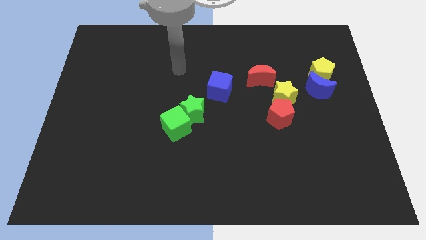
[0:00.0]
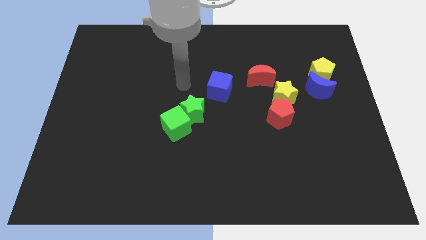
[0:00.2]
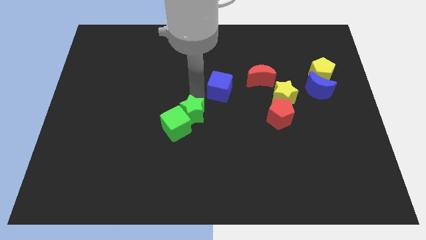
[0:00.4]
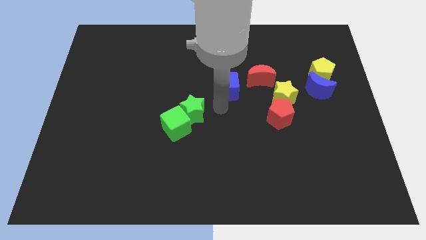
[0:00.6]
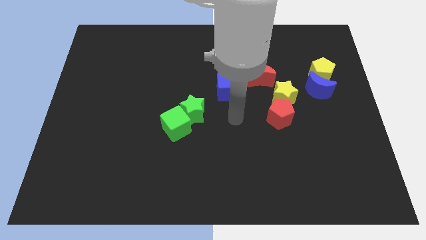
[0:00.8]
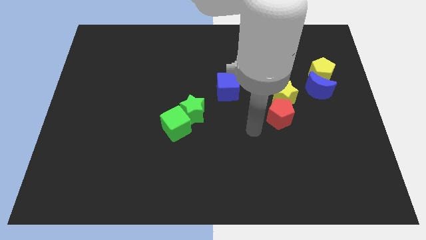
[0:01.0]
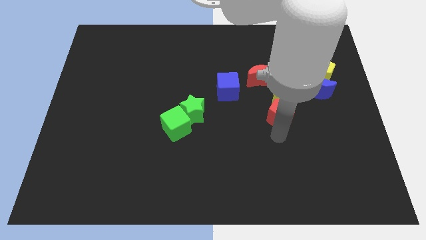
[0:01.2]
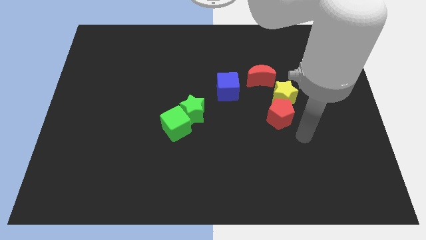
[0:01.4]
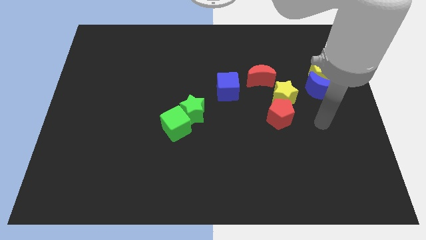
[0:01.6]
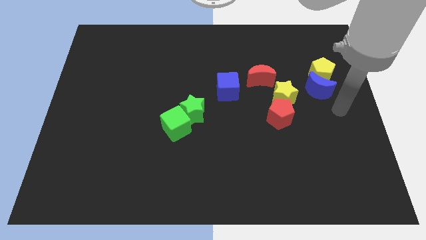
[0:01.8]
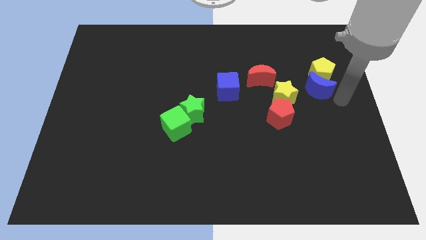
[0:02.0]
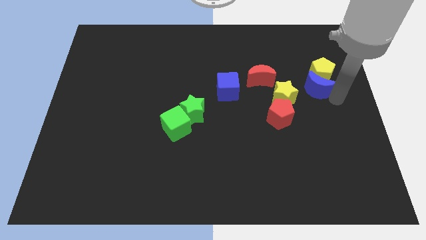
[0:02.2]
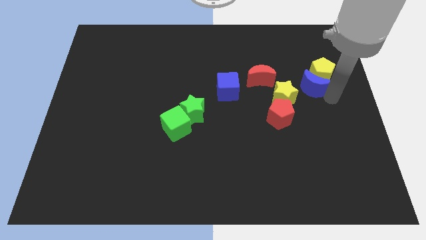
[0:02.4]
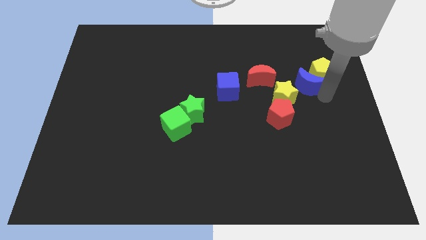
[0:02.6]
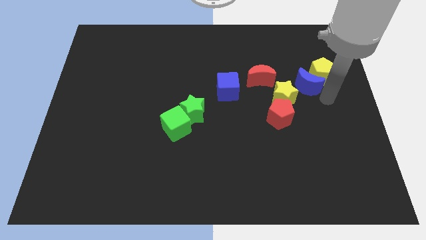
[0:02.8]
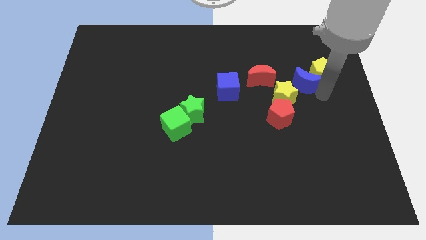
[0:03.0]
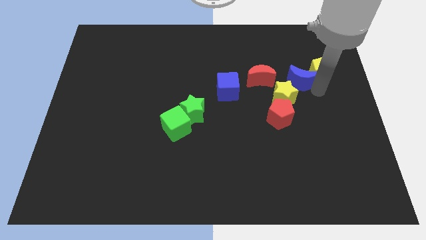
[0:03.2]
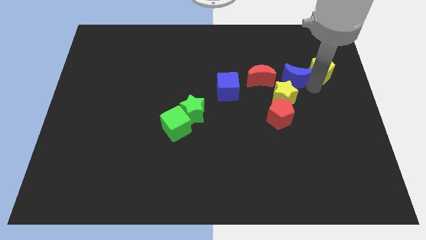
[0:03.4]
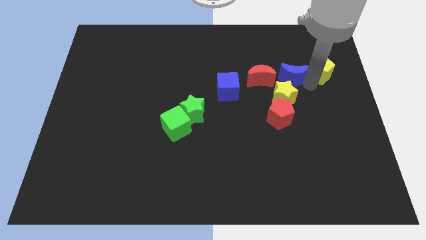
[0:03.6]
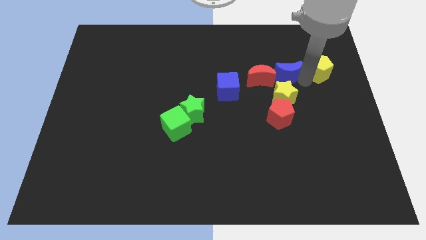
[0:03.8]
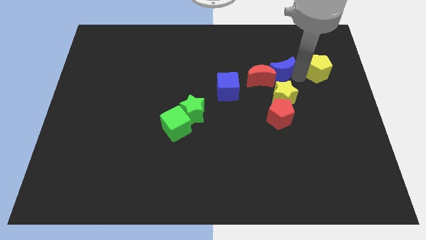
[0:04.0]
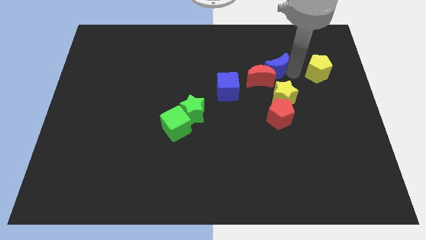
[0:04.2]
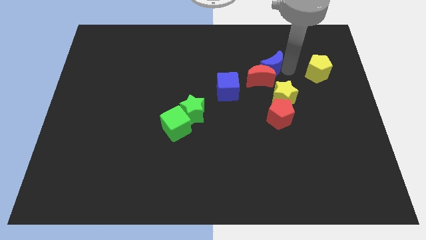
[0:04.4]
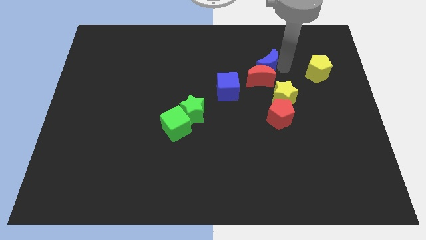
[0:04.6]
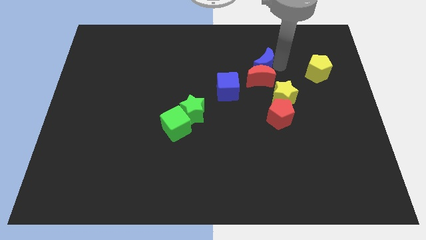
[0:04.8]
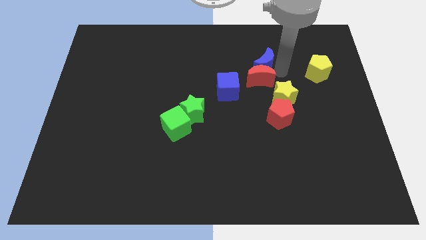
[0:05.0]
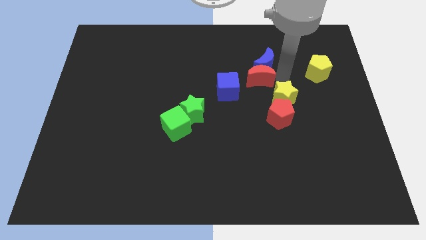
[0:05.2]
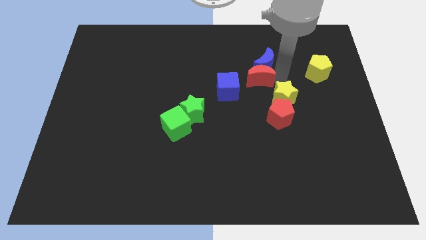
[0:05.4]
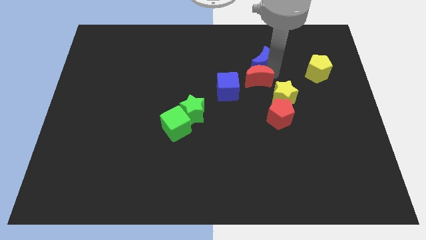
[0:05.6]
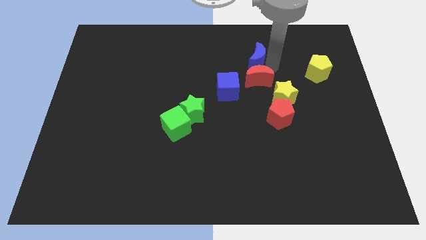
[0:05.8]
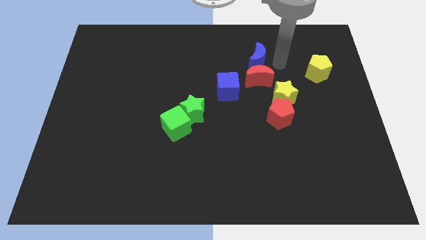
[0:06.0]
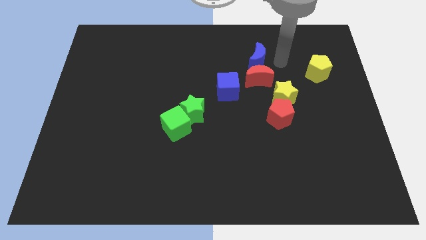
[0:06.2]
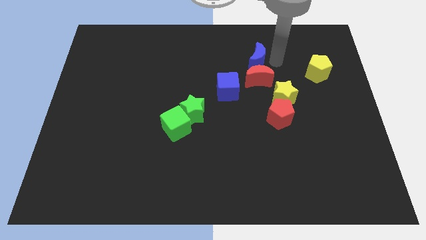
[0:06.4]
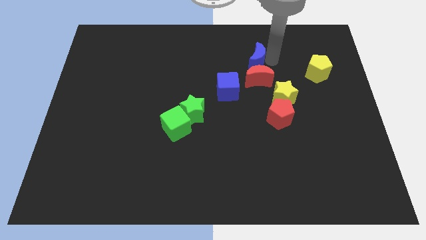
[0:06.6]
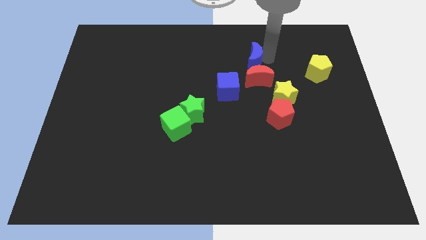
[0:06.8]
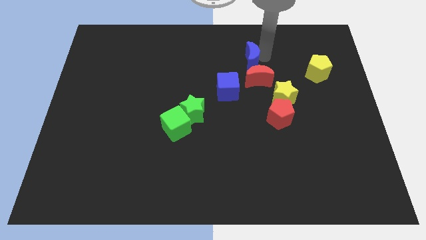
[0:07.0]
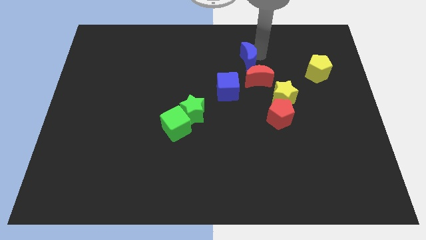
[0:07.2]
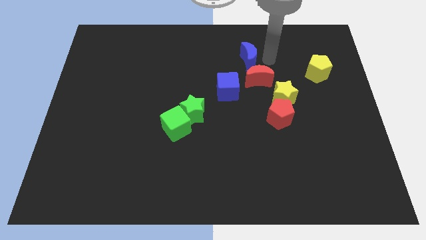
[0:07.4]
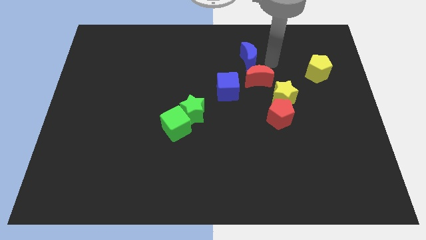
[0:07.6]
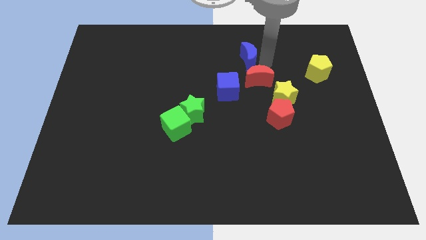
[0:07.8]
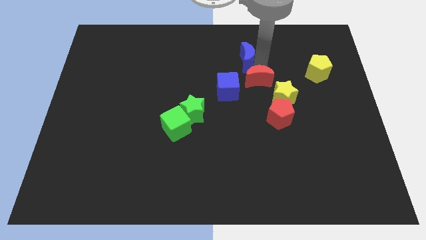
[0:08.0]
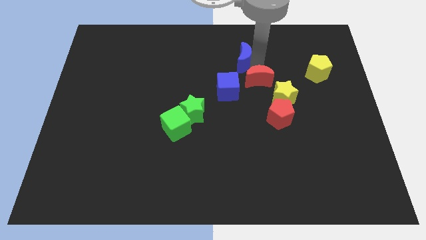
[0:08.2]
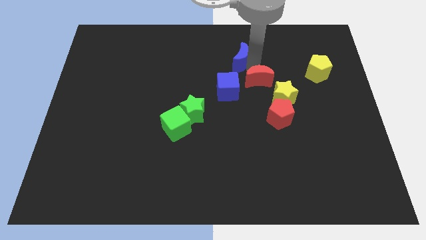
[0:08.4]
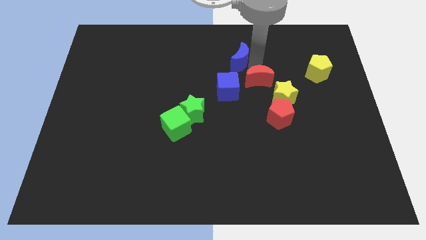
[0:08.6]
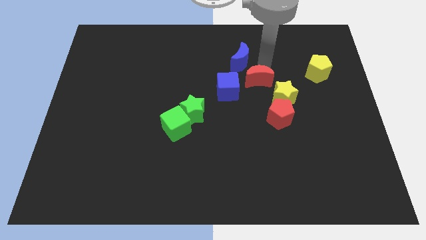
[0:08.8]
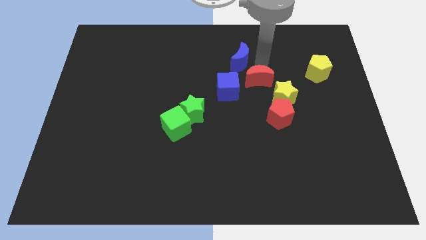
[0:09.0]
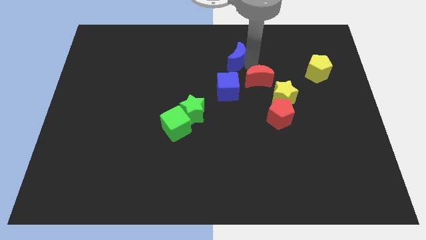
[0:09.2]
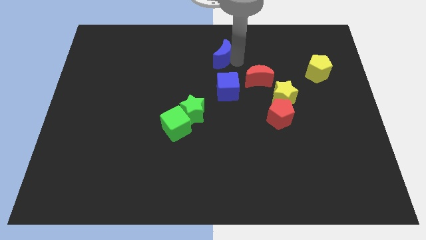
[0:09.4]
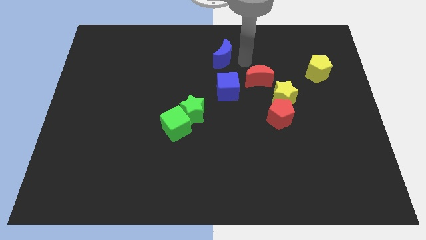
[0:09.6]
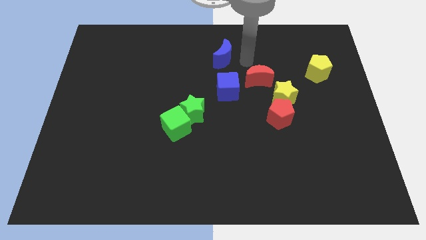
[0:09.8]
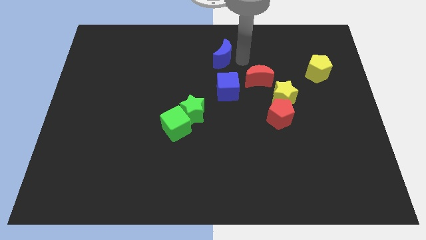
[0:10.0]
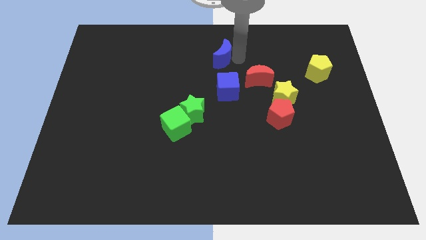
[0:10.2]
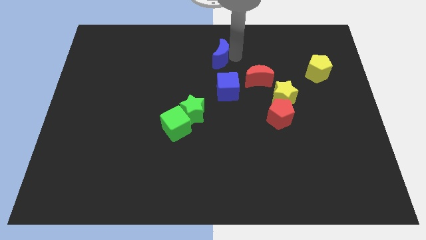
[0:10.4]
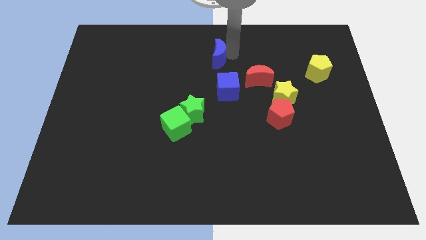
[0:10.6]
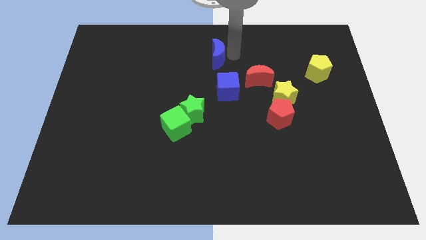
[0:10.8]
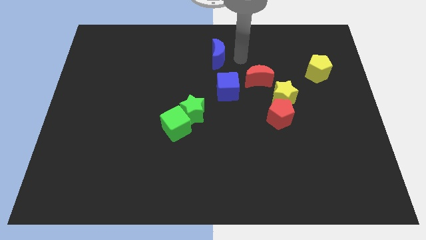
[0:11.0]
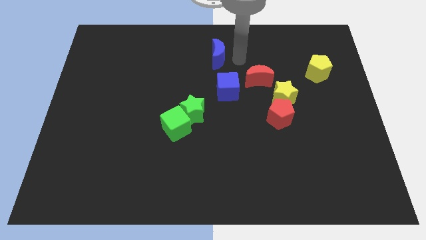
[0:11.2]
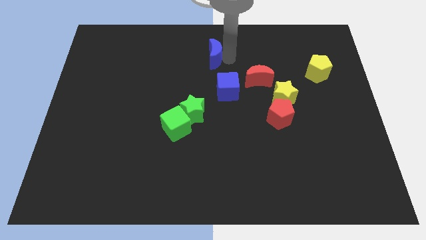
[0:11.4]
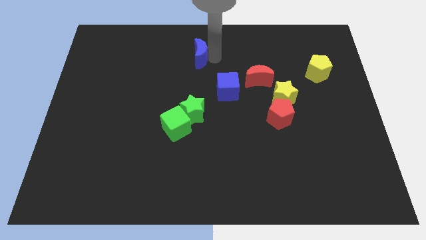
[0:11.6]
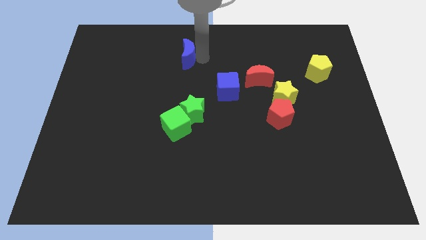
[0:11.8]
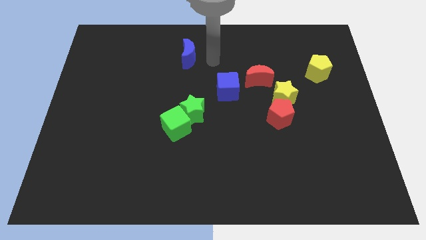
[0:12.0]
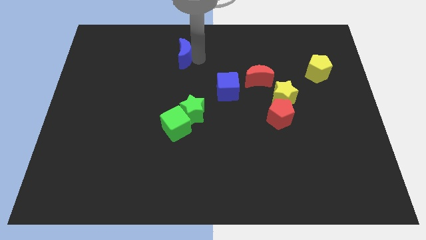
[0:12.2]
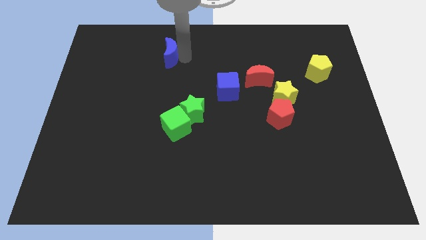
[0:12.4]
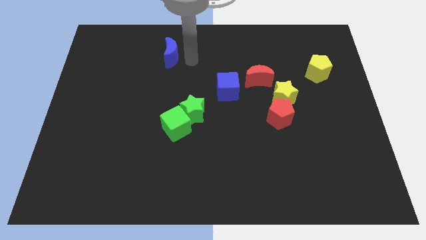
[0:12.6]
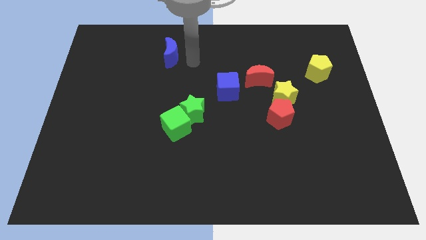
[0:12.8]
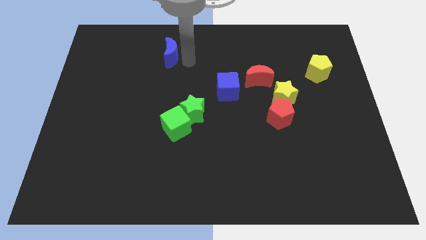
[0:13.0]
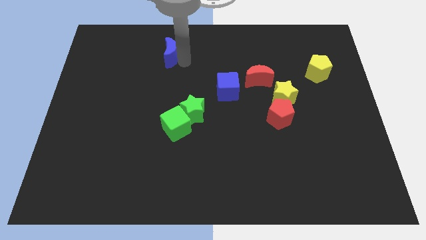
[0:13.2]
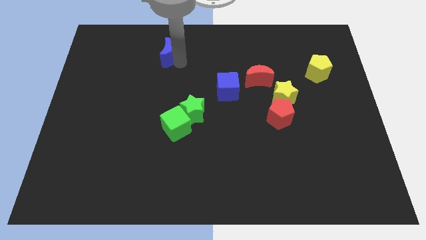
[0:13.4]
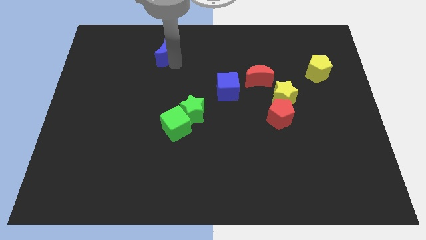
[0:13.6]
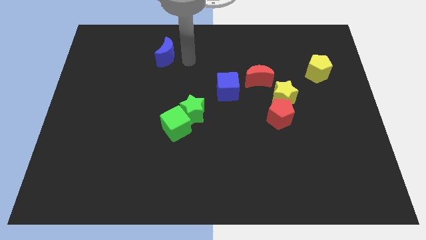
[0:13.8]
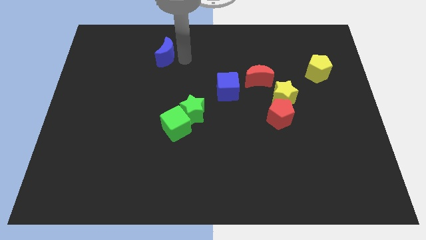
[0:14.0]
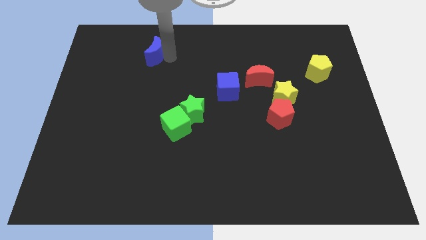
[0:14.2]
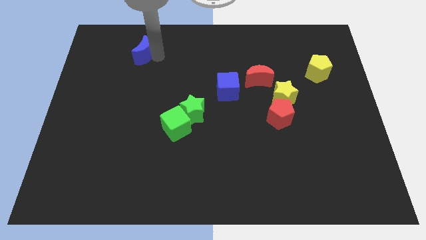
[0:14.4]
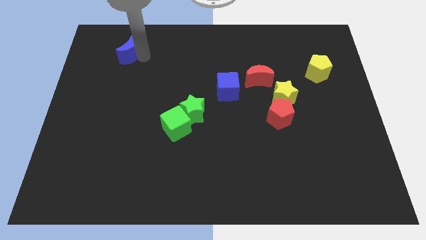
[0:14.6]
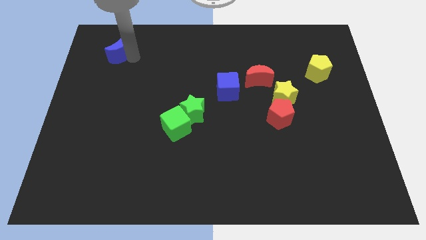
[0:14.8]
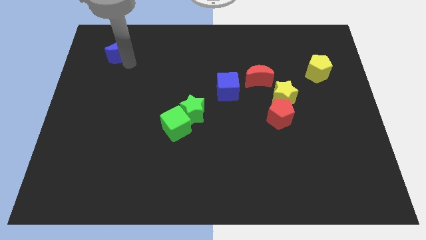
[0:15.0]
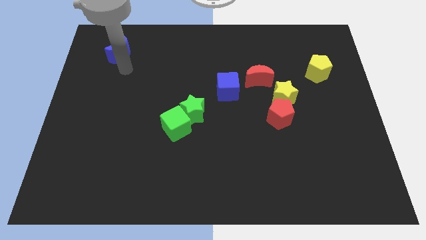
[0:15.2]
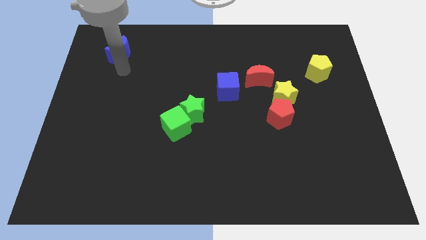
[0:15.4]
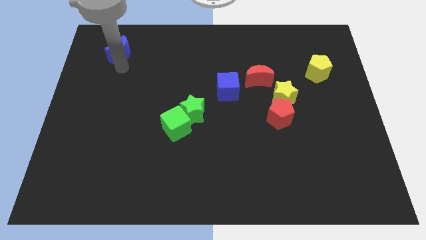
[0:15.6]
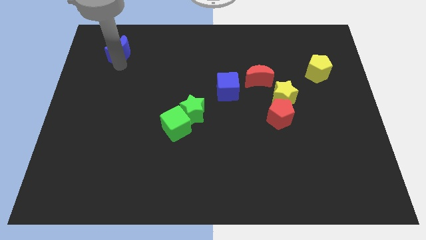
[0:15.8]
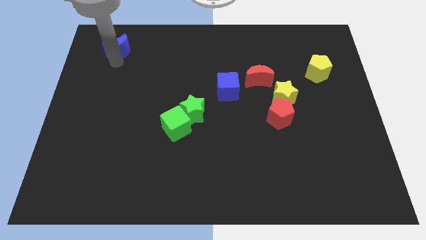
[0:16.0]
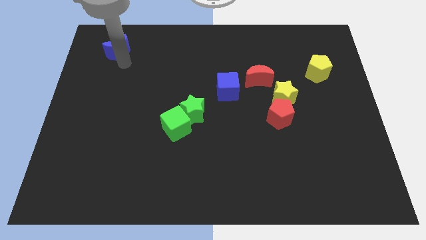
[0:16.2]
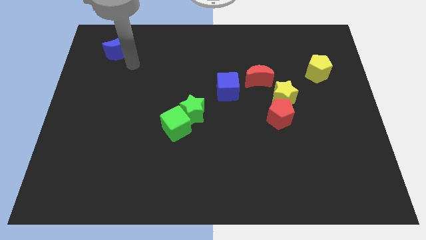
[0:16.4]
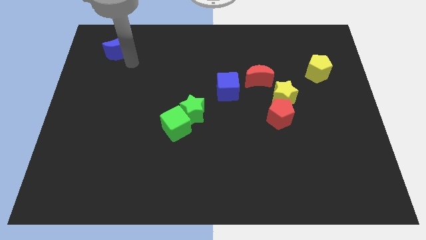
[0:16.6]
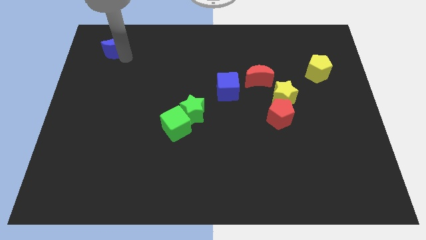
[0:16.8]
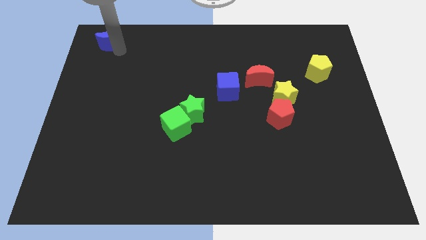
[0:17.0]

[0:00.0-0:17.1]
slide the blue moon to the top left corner
